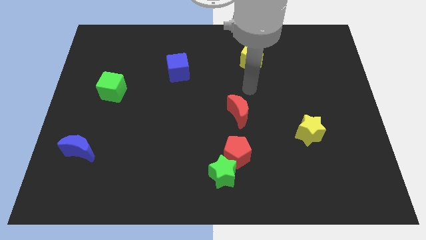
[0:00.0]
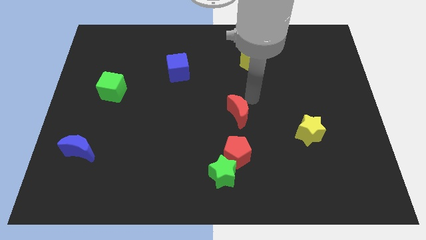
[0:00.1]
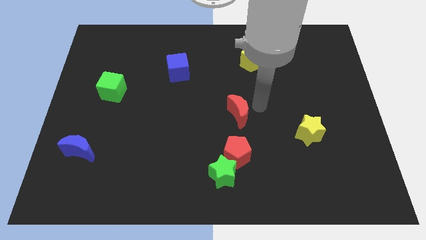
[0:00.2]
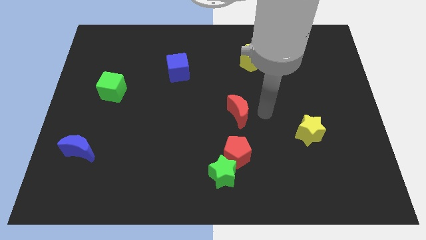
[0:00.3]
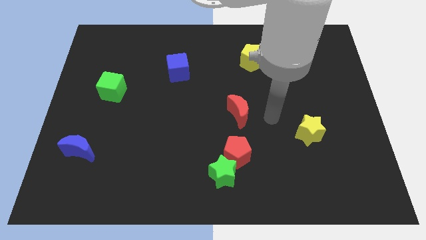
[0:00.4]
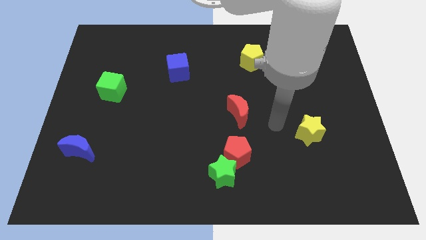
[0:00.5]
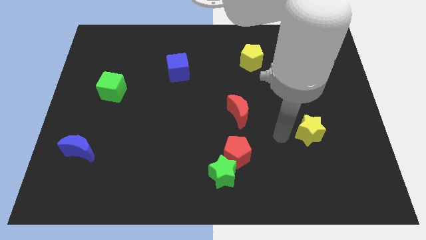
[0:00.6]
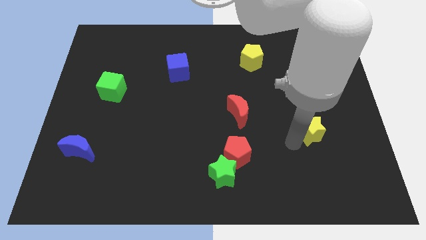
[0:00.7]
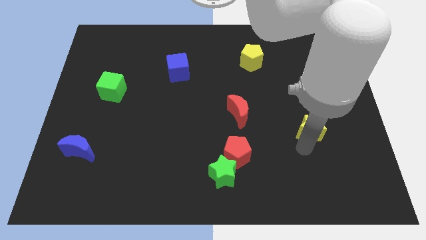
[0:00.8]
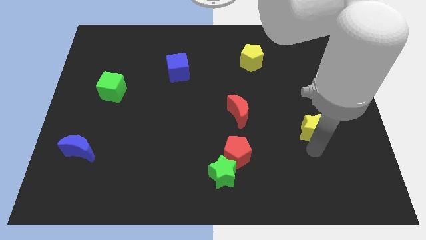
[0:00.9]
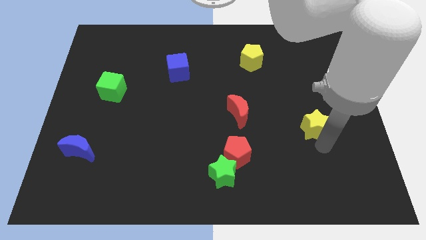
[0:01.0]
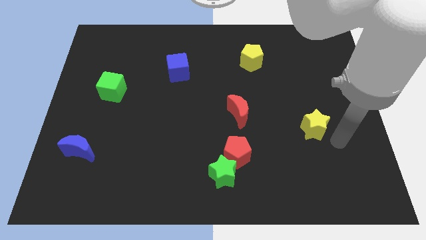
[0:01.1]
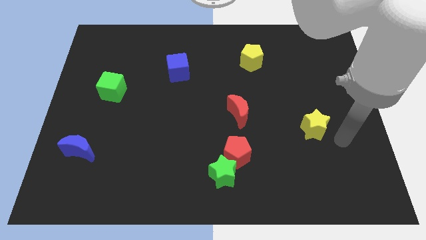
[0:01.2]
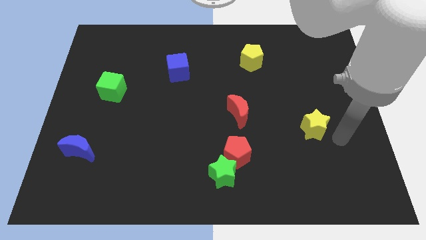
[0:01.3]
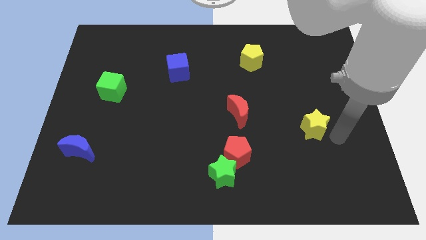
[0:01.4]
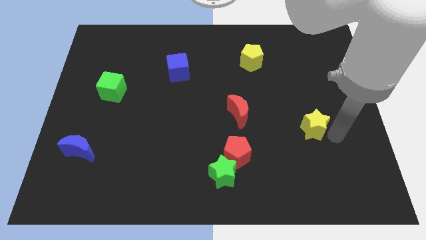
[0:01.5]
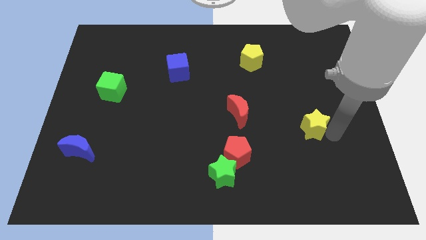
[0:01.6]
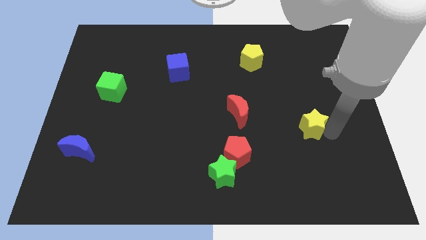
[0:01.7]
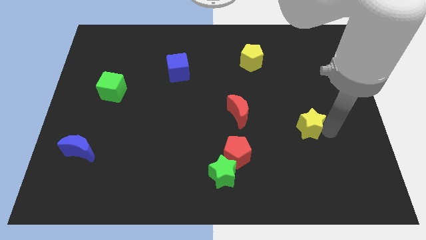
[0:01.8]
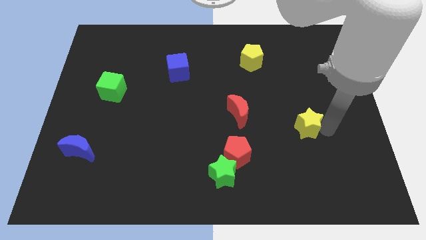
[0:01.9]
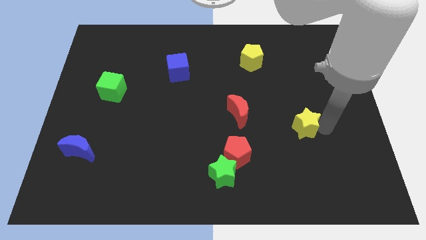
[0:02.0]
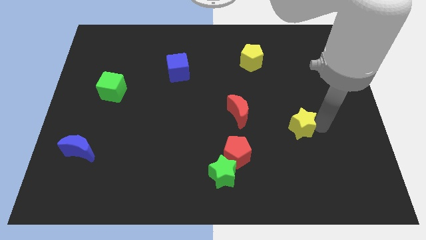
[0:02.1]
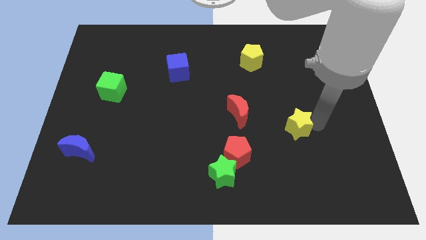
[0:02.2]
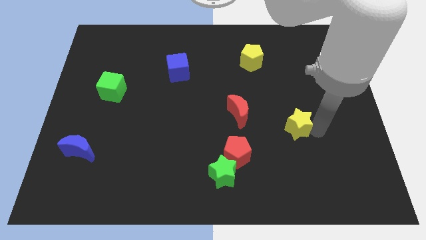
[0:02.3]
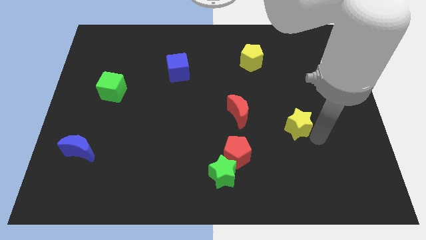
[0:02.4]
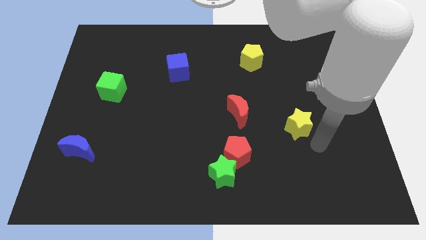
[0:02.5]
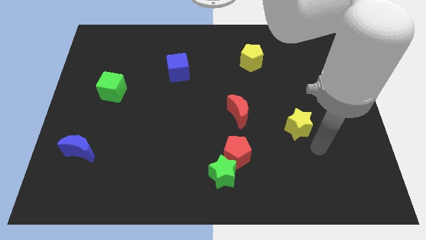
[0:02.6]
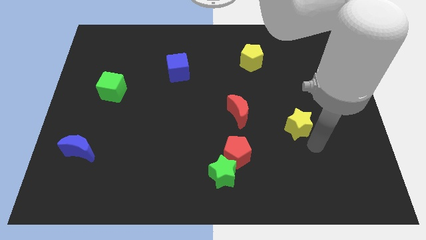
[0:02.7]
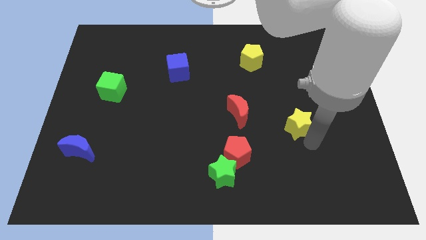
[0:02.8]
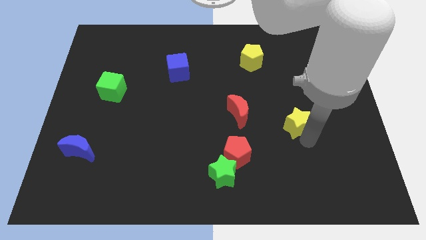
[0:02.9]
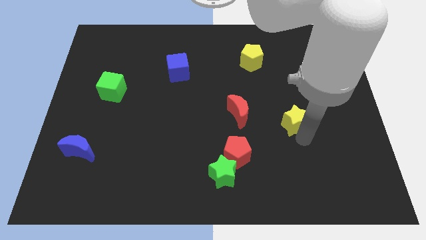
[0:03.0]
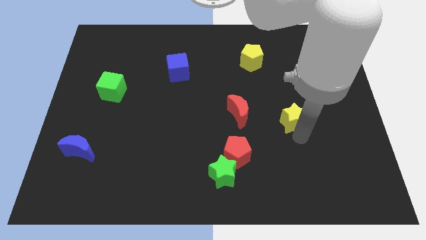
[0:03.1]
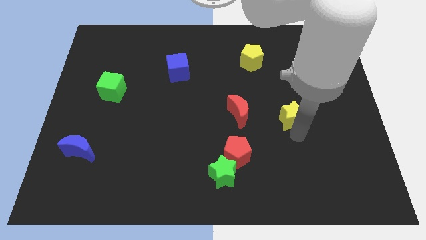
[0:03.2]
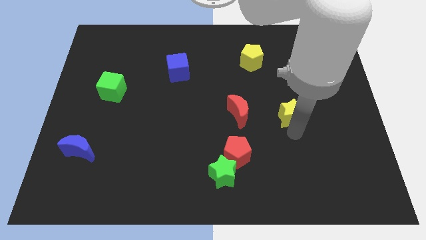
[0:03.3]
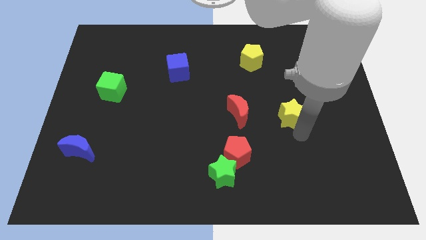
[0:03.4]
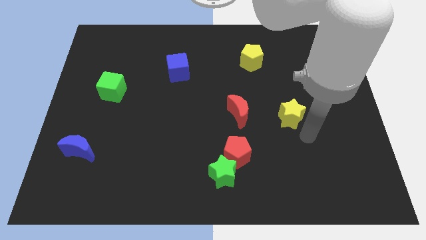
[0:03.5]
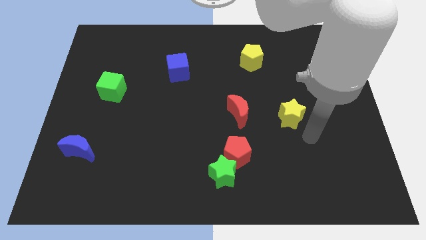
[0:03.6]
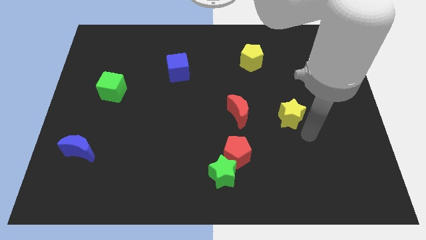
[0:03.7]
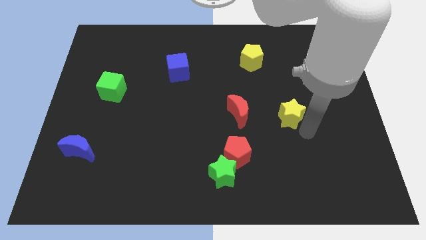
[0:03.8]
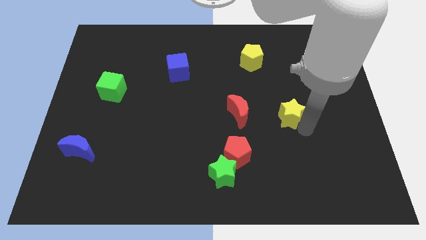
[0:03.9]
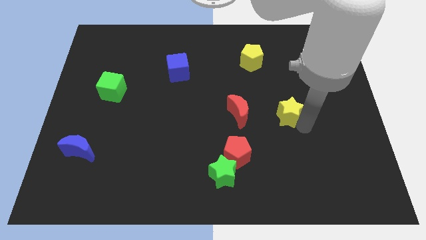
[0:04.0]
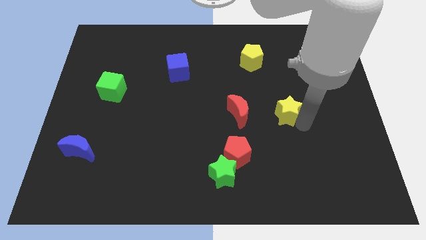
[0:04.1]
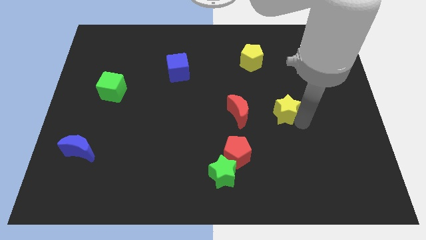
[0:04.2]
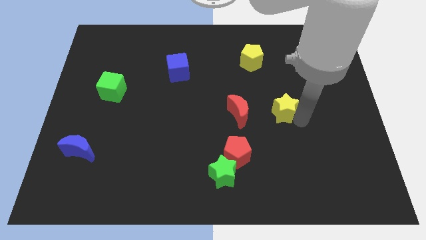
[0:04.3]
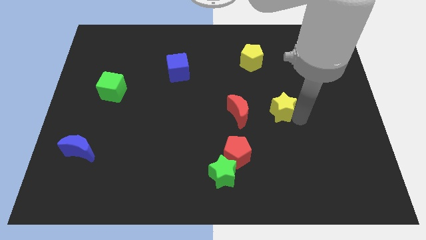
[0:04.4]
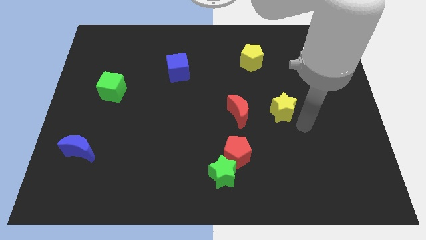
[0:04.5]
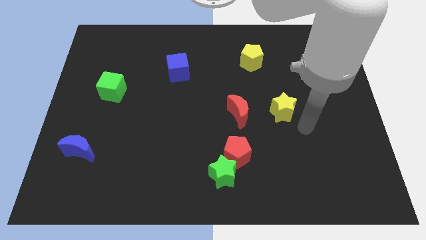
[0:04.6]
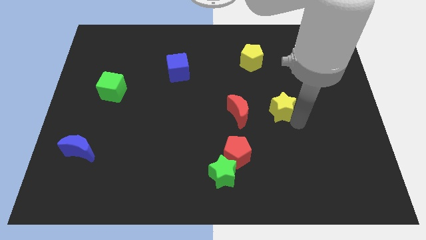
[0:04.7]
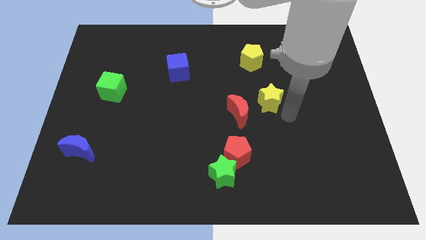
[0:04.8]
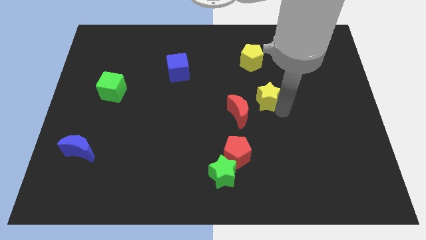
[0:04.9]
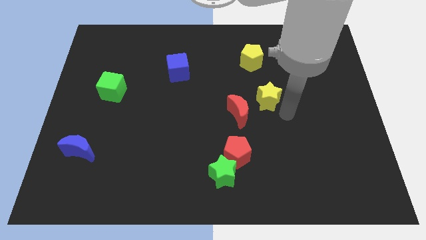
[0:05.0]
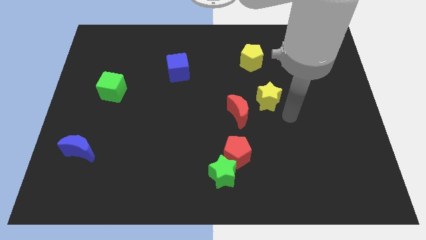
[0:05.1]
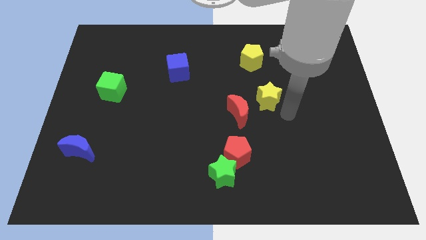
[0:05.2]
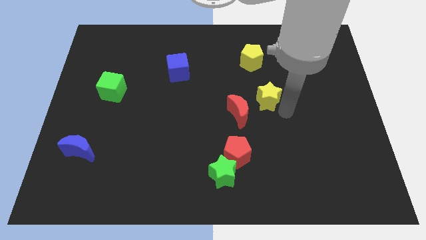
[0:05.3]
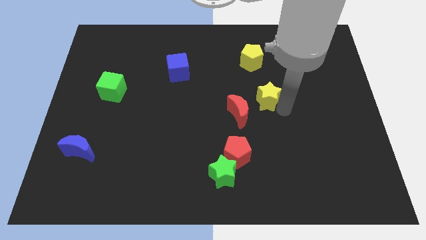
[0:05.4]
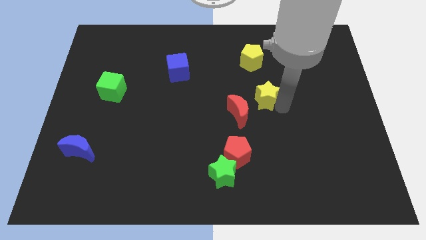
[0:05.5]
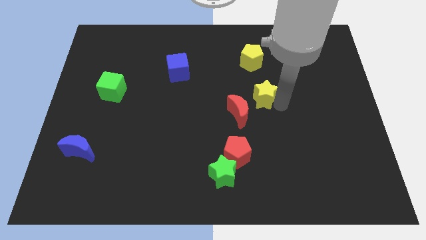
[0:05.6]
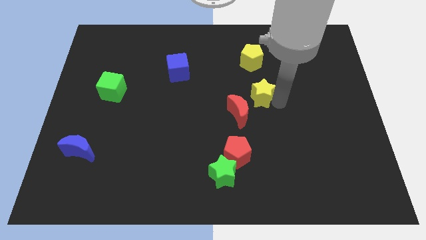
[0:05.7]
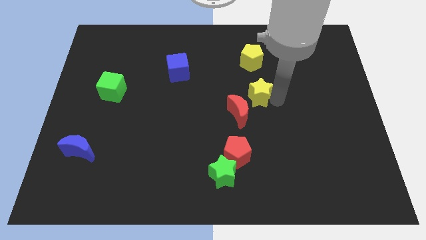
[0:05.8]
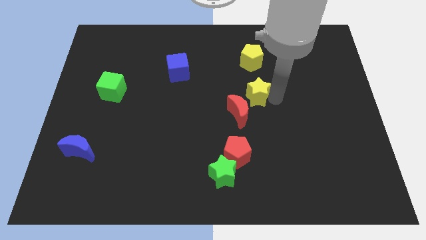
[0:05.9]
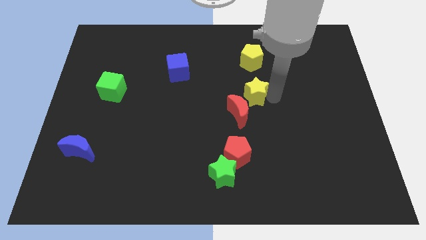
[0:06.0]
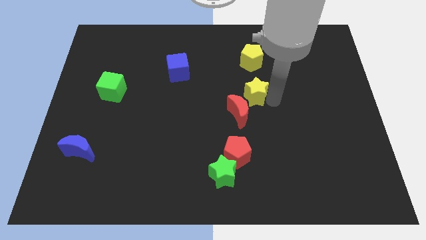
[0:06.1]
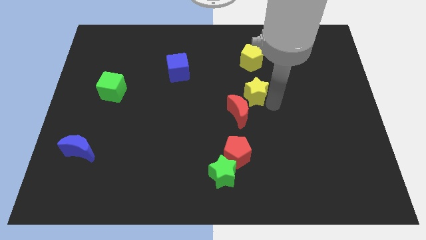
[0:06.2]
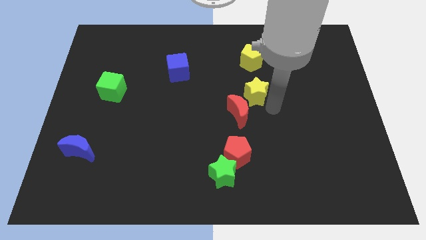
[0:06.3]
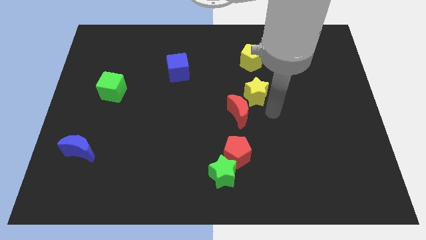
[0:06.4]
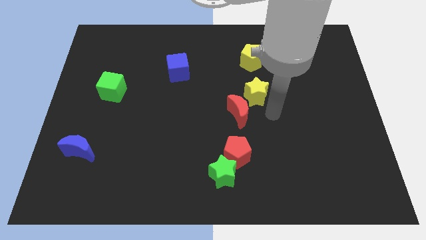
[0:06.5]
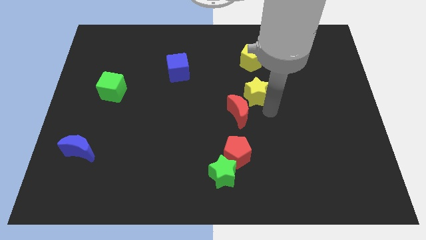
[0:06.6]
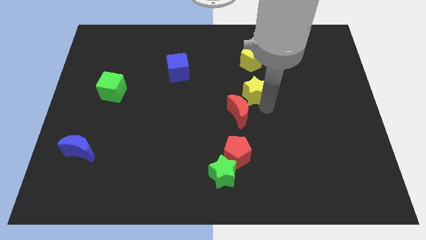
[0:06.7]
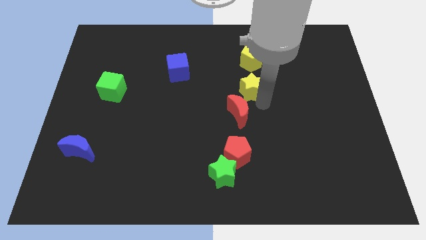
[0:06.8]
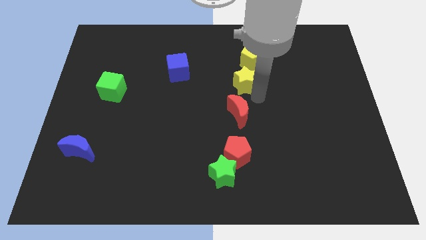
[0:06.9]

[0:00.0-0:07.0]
slide the yellow star upwards and left diagonally

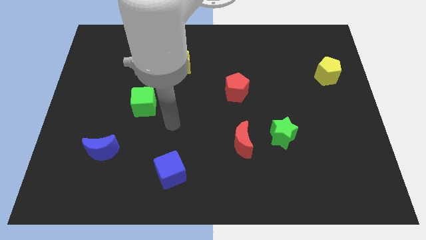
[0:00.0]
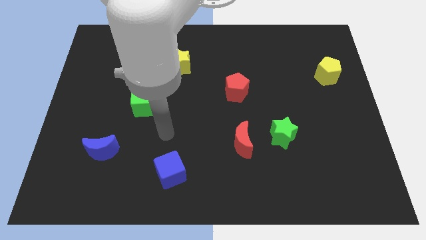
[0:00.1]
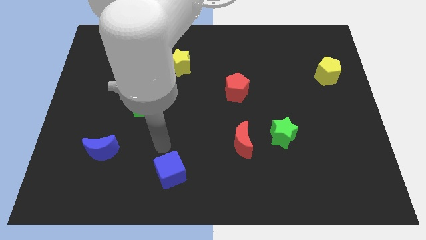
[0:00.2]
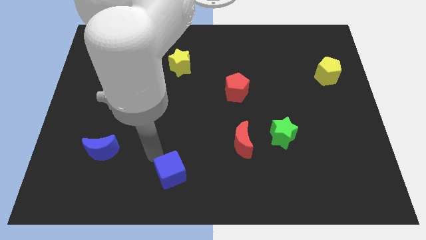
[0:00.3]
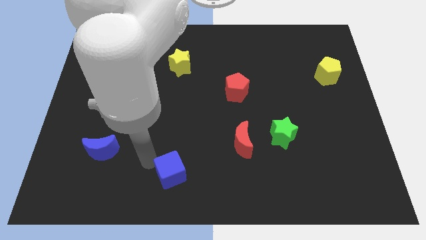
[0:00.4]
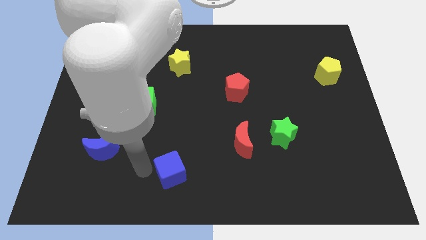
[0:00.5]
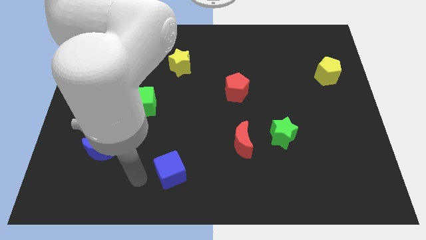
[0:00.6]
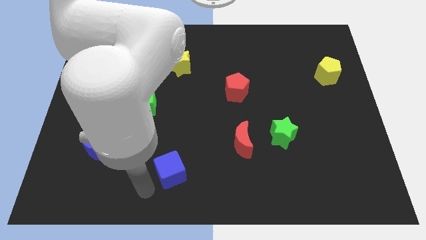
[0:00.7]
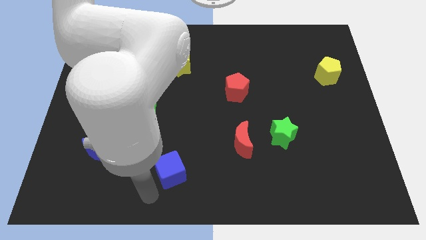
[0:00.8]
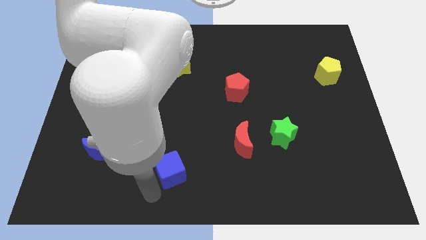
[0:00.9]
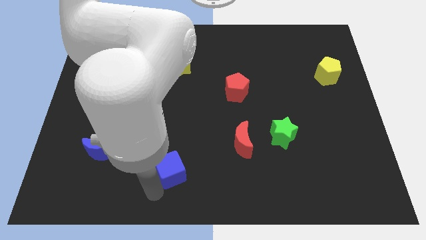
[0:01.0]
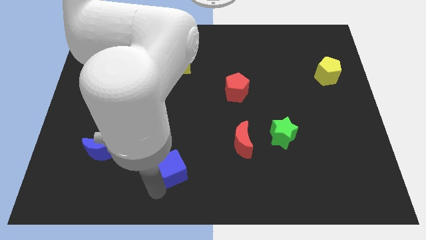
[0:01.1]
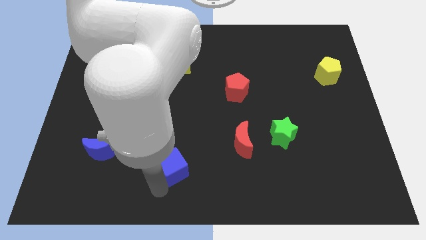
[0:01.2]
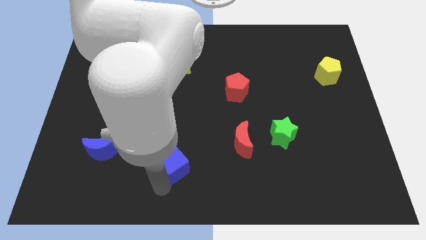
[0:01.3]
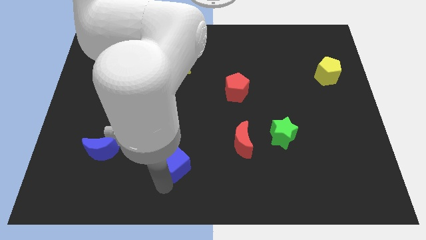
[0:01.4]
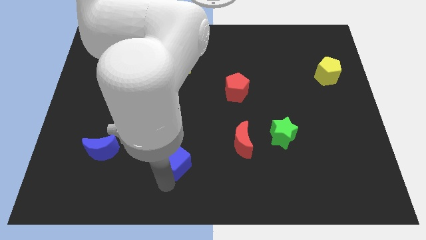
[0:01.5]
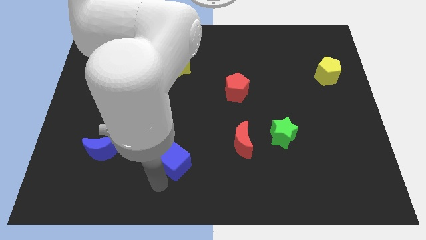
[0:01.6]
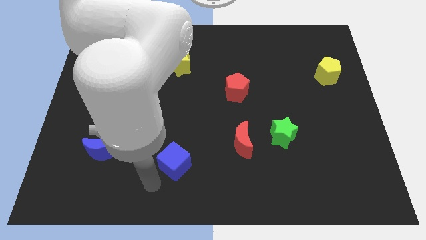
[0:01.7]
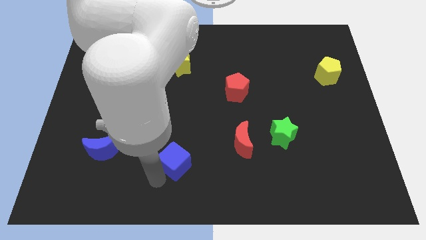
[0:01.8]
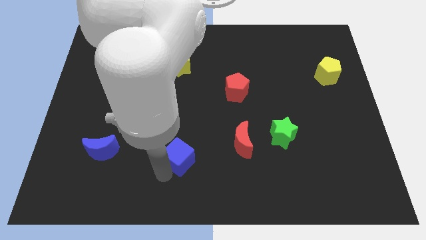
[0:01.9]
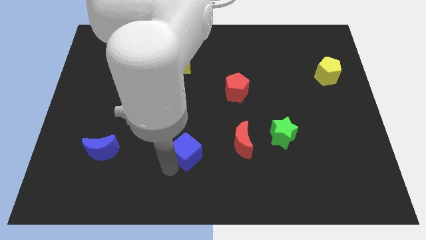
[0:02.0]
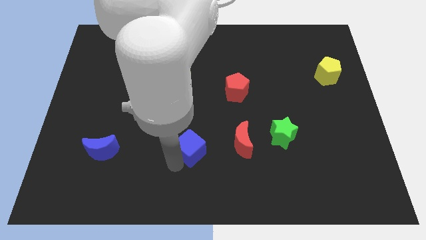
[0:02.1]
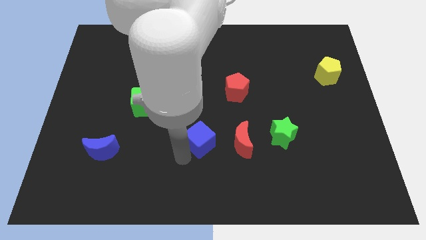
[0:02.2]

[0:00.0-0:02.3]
slightly push the blue cube upwards and right
